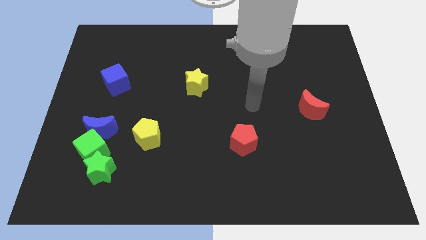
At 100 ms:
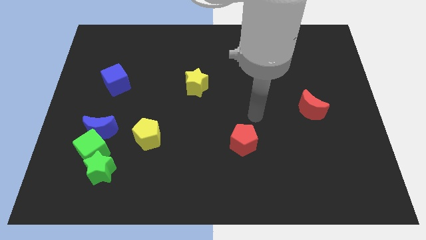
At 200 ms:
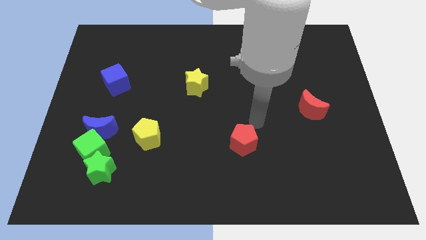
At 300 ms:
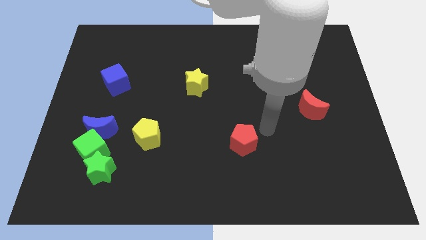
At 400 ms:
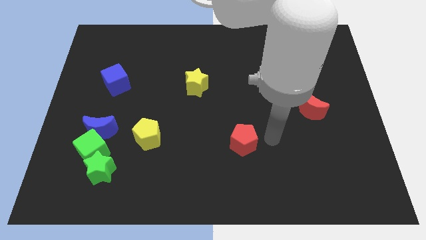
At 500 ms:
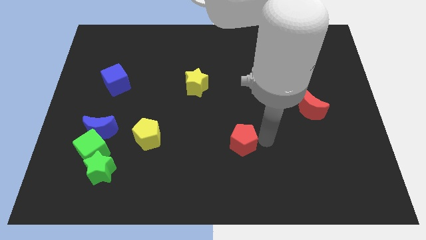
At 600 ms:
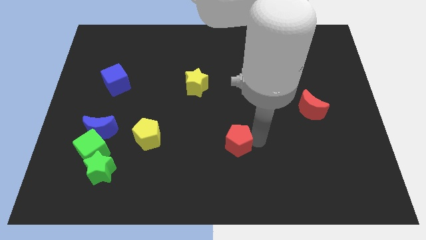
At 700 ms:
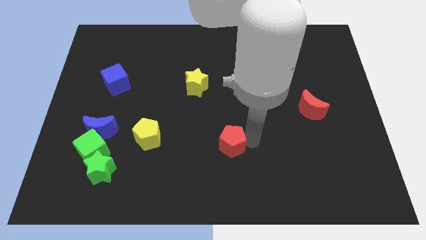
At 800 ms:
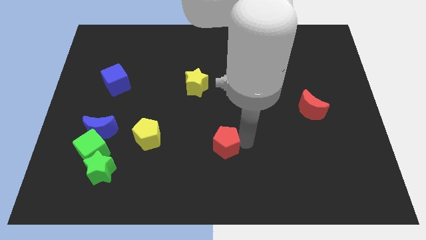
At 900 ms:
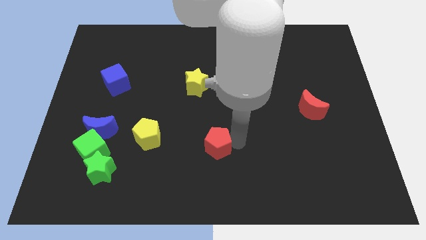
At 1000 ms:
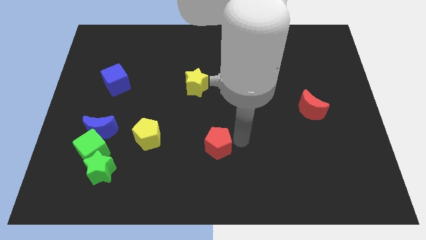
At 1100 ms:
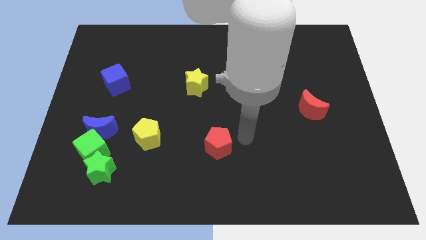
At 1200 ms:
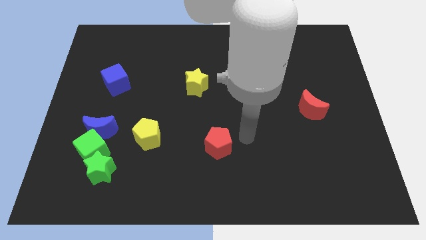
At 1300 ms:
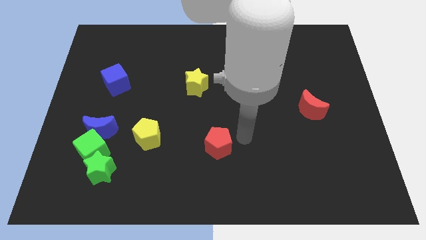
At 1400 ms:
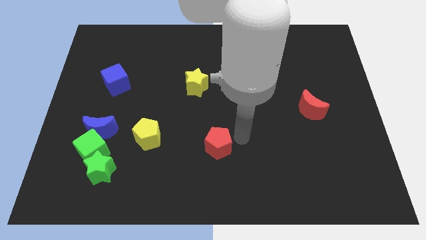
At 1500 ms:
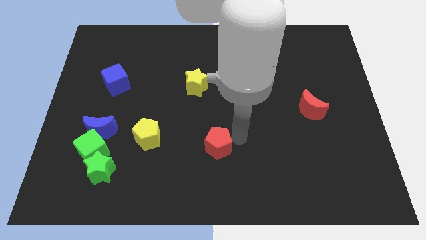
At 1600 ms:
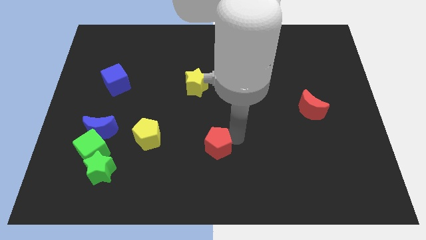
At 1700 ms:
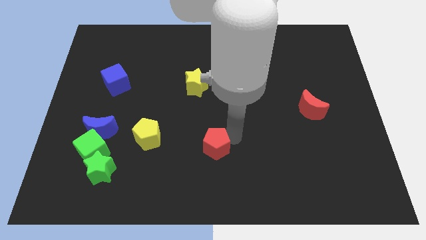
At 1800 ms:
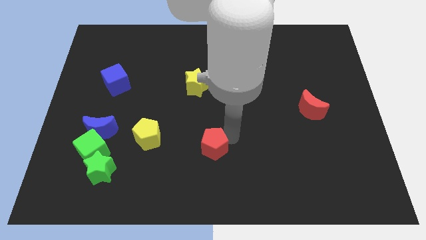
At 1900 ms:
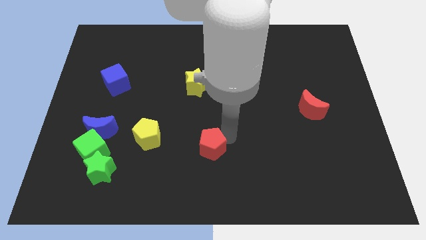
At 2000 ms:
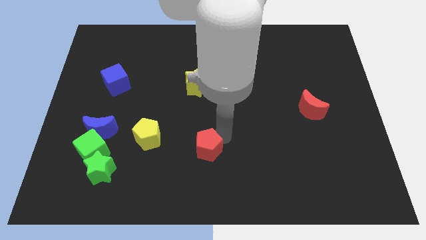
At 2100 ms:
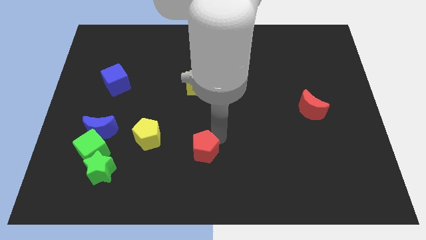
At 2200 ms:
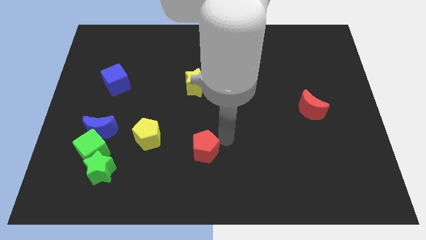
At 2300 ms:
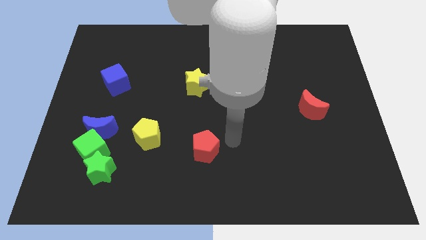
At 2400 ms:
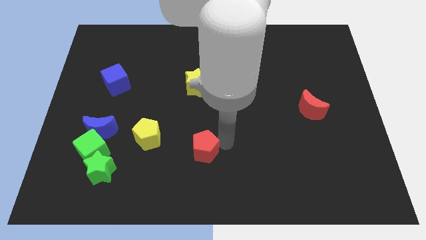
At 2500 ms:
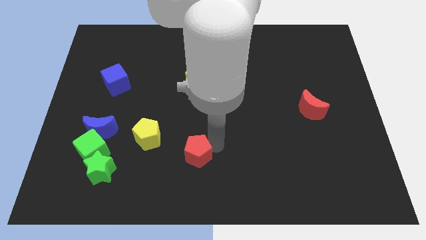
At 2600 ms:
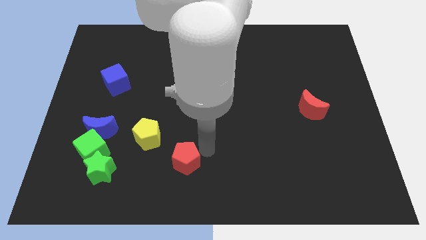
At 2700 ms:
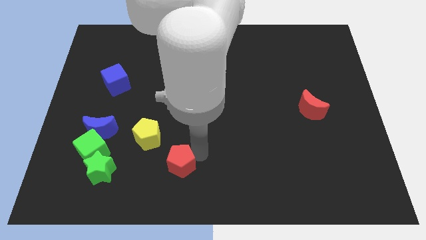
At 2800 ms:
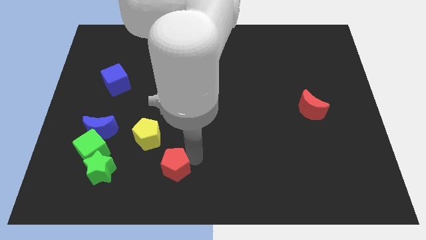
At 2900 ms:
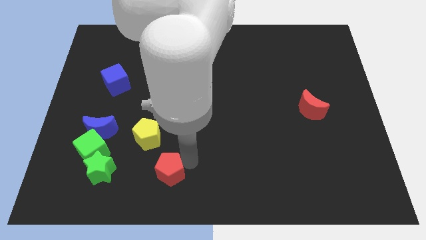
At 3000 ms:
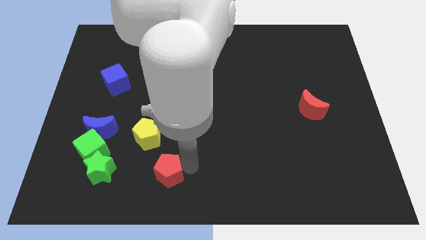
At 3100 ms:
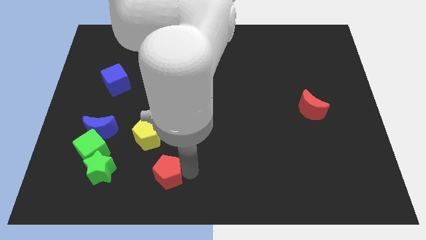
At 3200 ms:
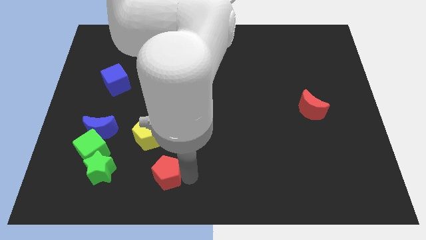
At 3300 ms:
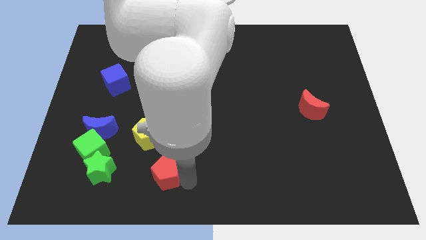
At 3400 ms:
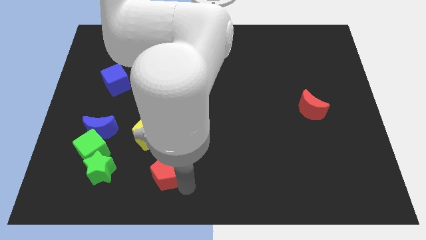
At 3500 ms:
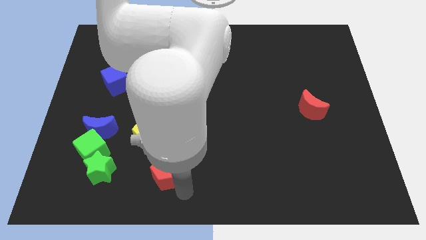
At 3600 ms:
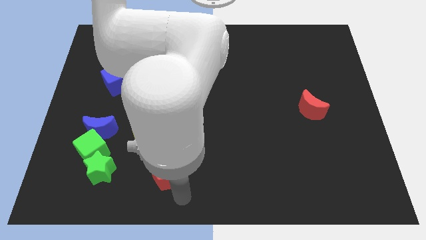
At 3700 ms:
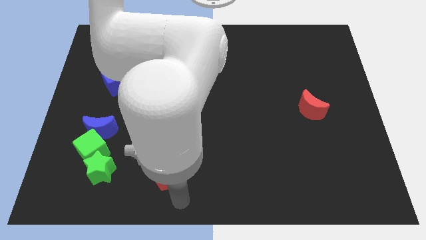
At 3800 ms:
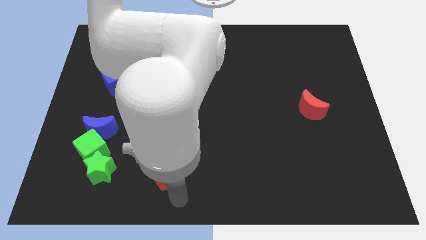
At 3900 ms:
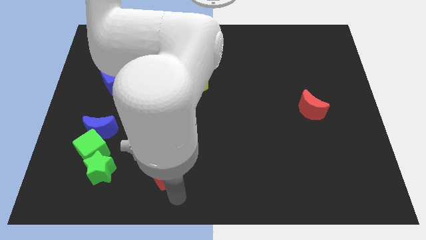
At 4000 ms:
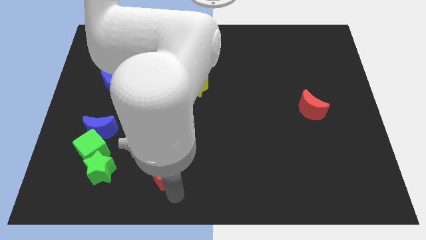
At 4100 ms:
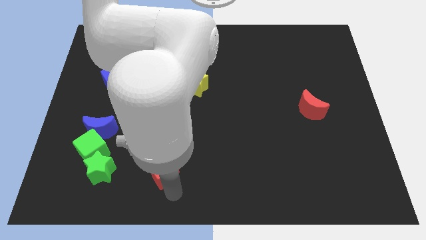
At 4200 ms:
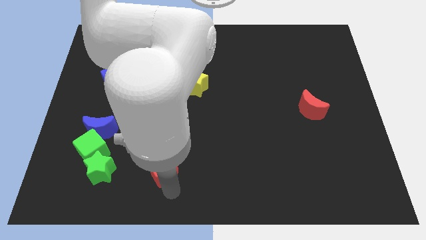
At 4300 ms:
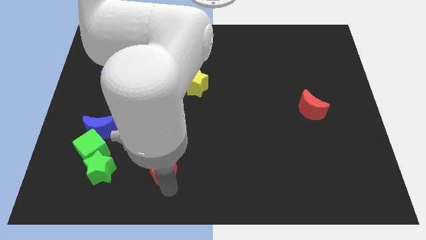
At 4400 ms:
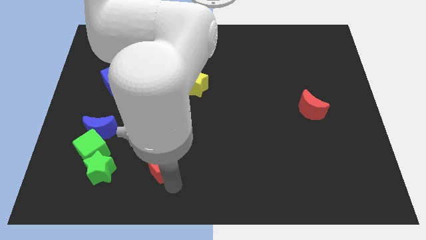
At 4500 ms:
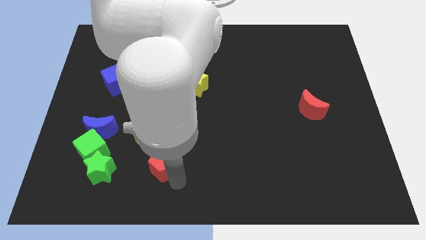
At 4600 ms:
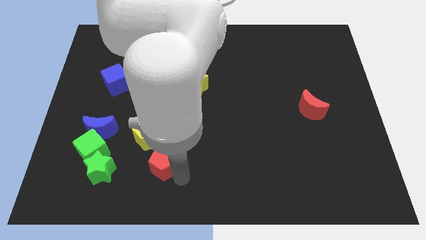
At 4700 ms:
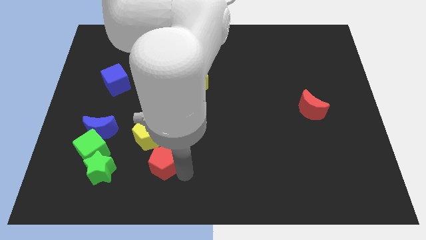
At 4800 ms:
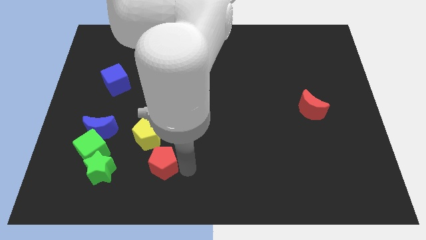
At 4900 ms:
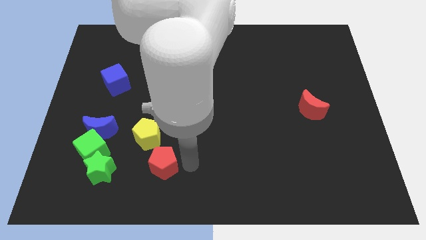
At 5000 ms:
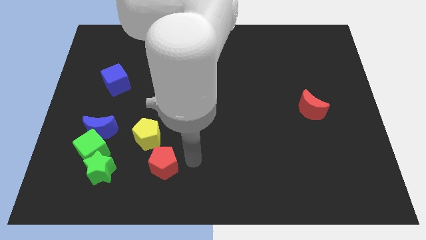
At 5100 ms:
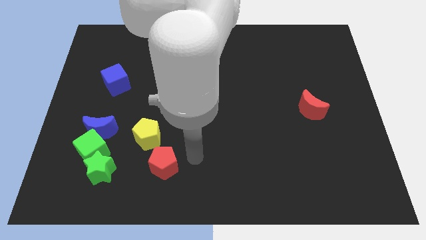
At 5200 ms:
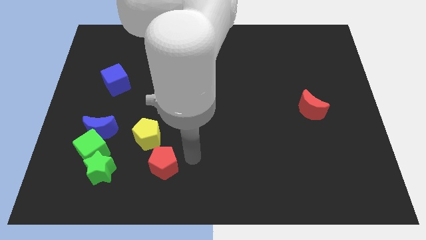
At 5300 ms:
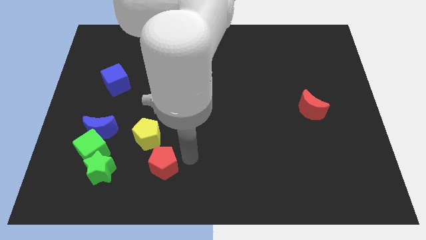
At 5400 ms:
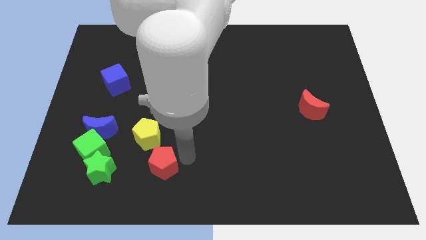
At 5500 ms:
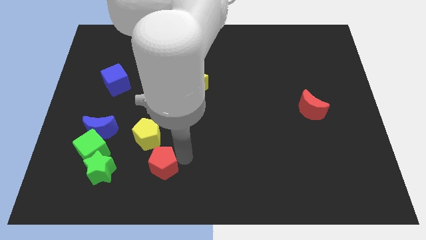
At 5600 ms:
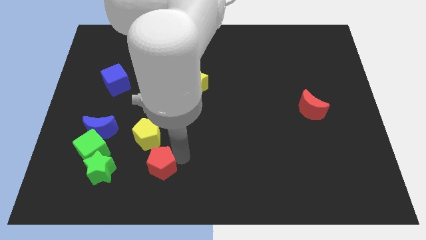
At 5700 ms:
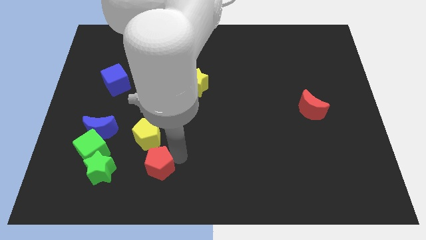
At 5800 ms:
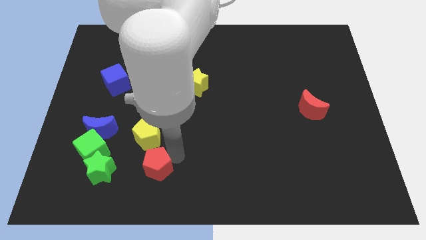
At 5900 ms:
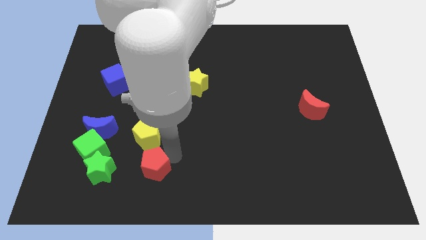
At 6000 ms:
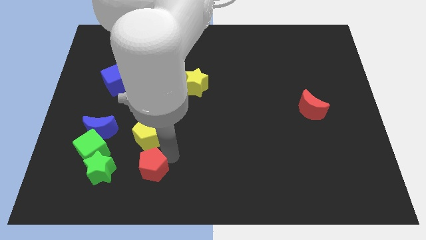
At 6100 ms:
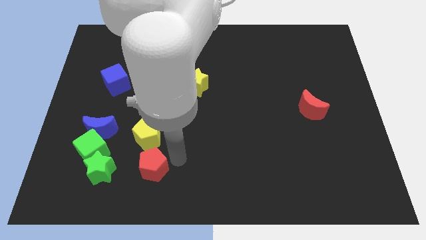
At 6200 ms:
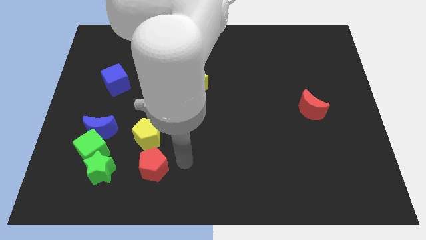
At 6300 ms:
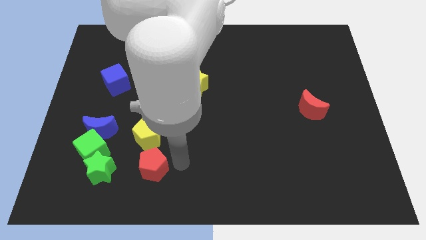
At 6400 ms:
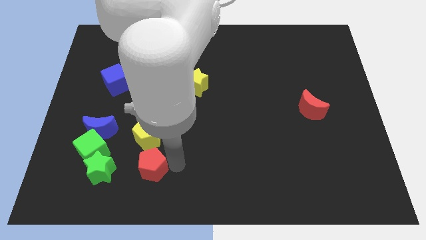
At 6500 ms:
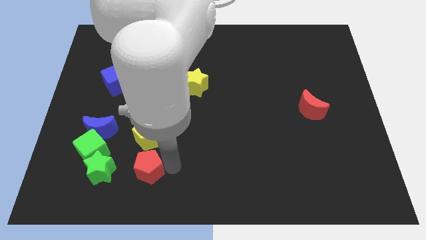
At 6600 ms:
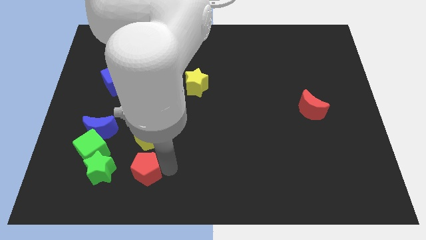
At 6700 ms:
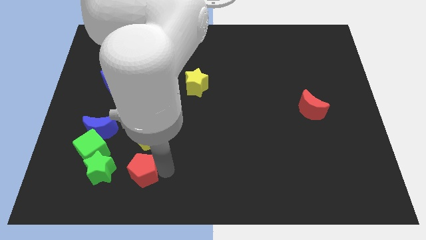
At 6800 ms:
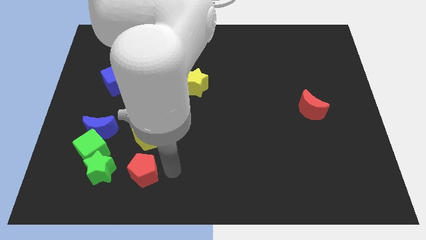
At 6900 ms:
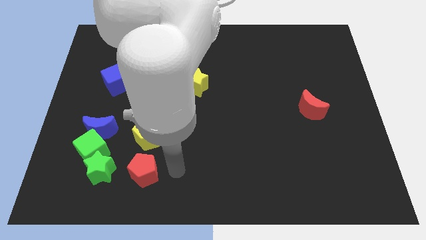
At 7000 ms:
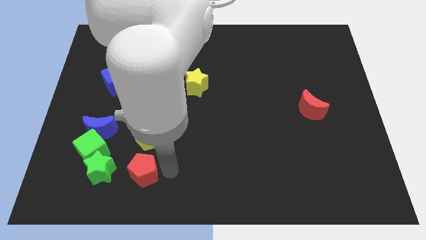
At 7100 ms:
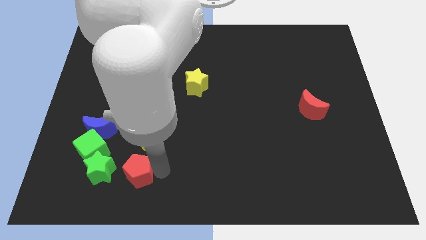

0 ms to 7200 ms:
move the red pentagon to the bottom right side of the green cube
